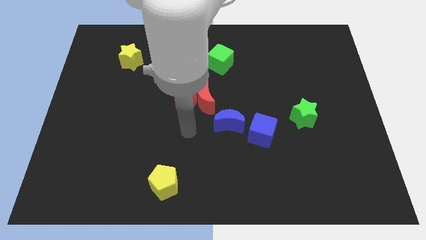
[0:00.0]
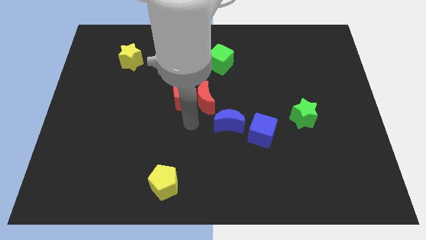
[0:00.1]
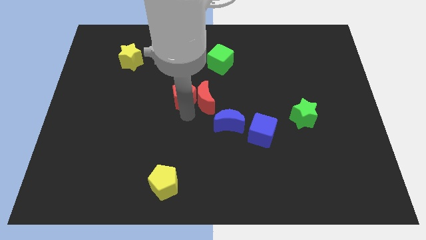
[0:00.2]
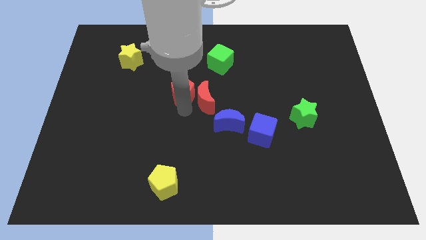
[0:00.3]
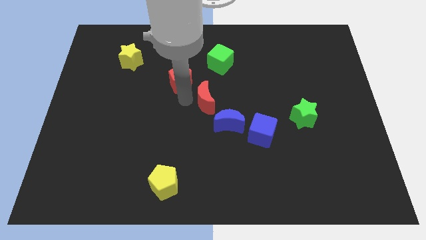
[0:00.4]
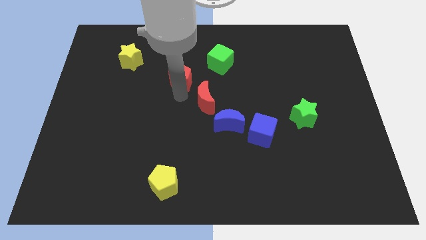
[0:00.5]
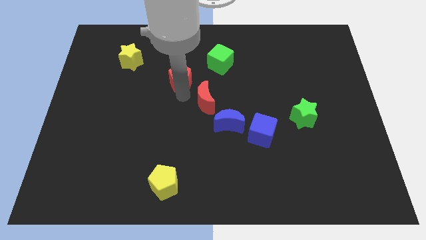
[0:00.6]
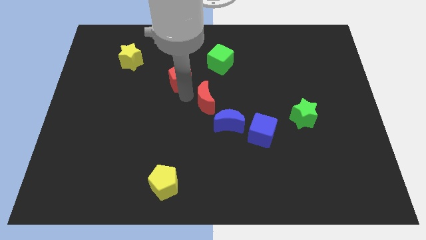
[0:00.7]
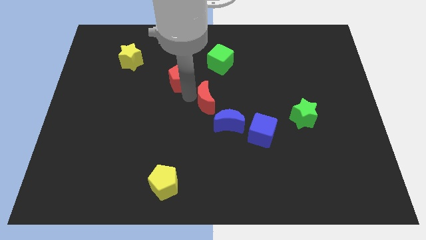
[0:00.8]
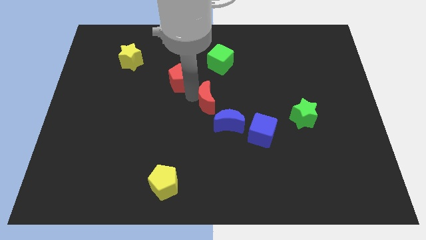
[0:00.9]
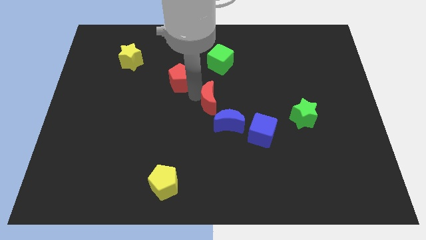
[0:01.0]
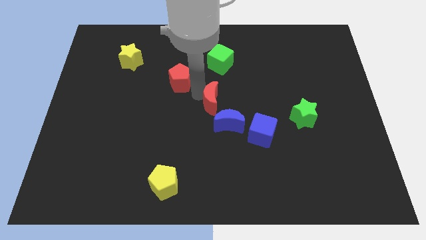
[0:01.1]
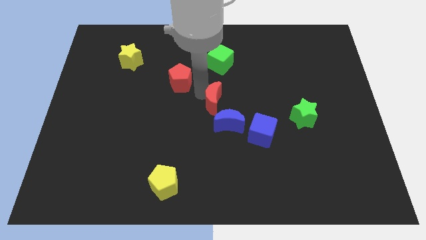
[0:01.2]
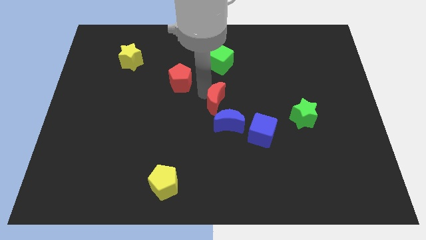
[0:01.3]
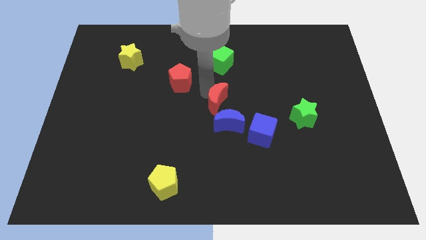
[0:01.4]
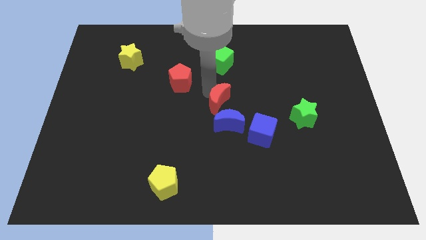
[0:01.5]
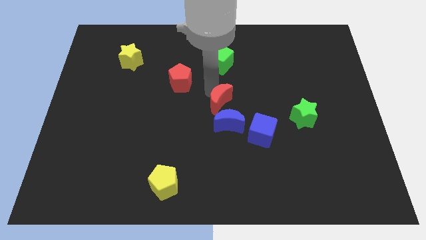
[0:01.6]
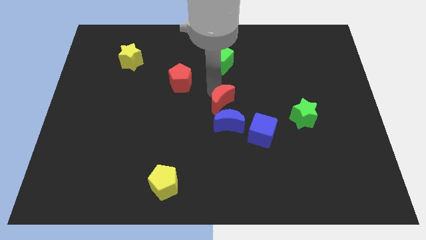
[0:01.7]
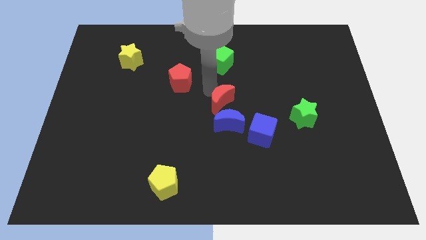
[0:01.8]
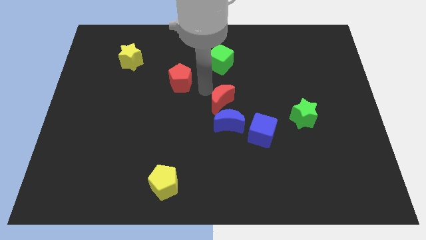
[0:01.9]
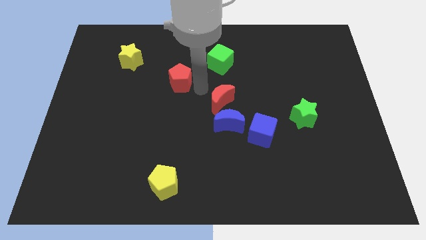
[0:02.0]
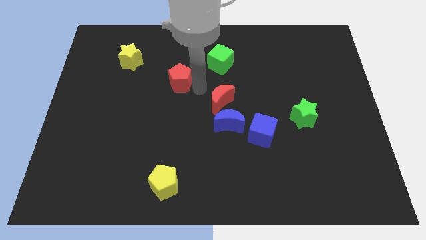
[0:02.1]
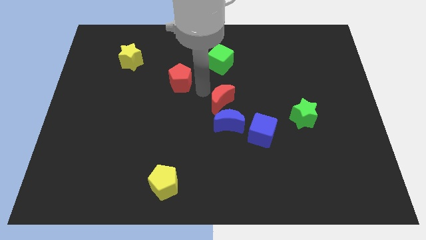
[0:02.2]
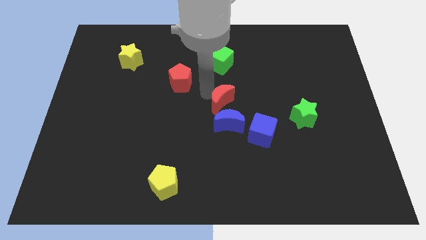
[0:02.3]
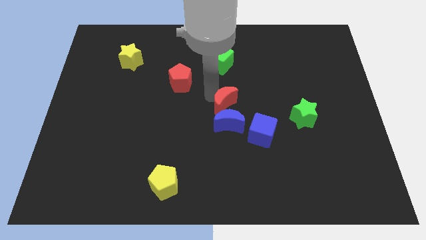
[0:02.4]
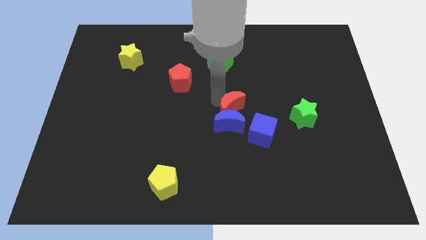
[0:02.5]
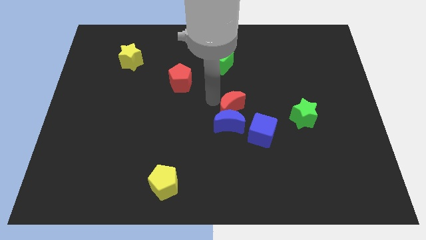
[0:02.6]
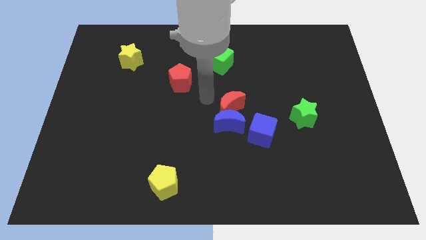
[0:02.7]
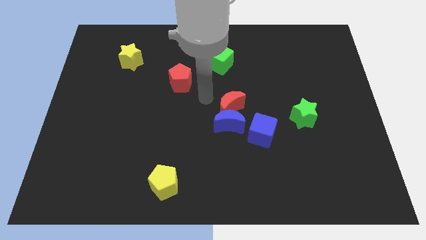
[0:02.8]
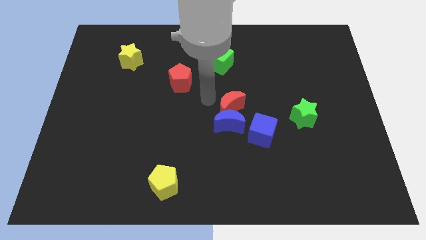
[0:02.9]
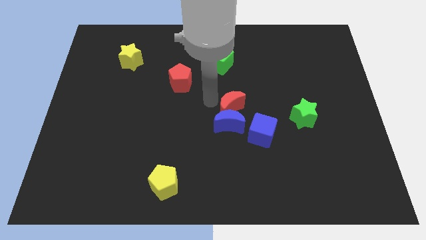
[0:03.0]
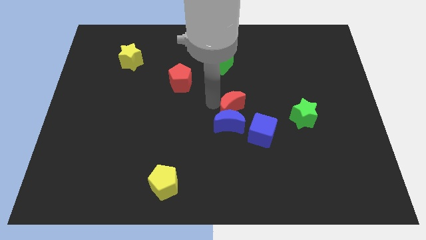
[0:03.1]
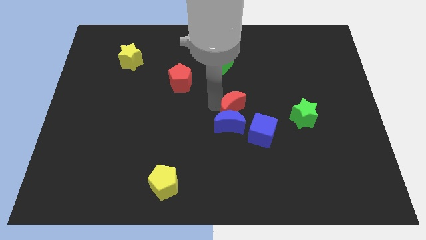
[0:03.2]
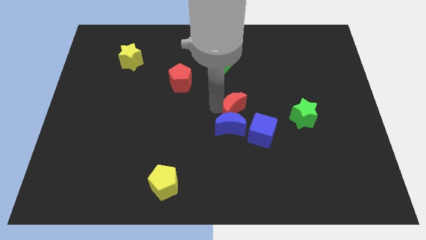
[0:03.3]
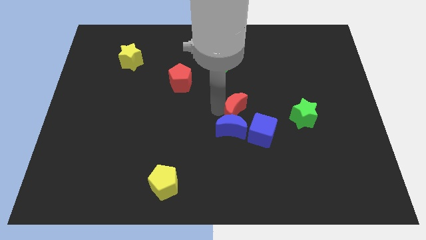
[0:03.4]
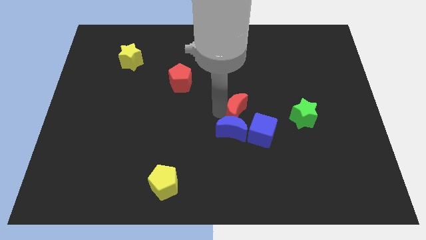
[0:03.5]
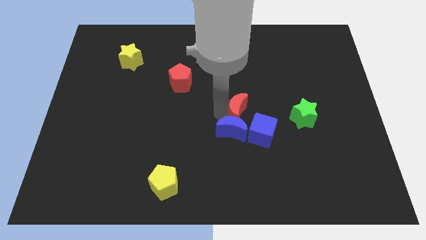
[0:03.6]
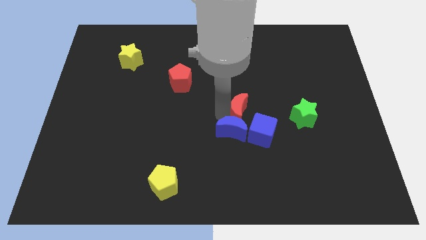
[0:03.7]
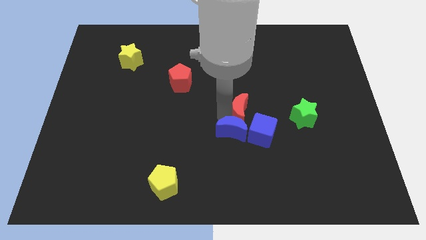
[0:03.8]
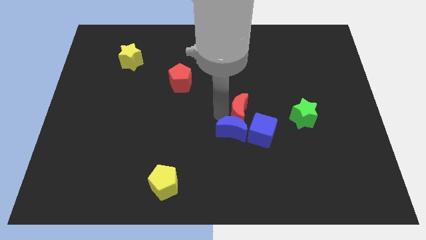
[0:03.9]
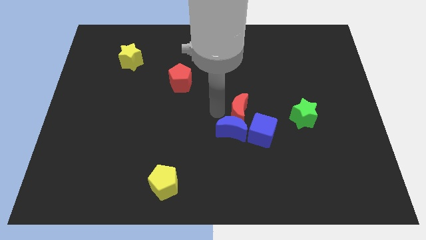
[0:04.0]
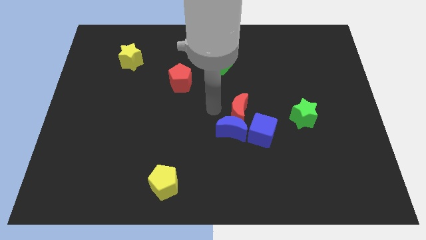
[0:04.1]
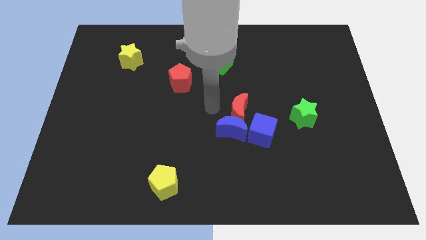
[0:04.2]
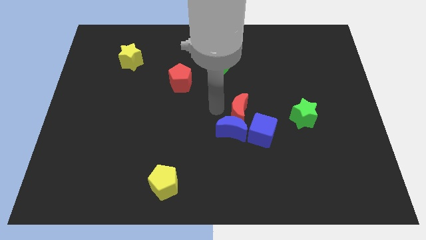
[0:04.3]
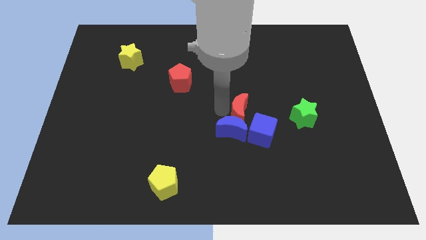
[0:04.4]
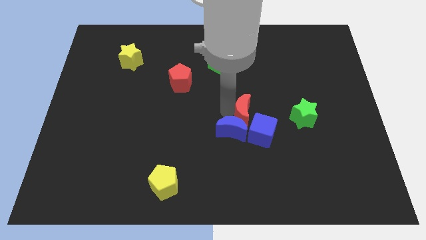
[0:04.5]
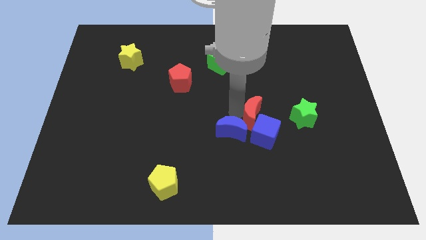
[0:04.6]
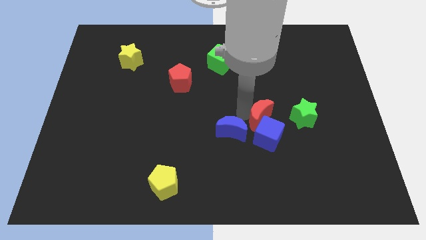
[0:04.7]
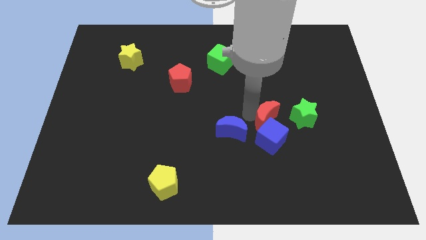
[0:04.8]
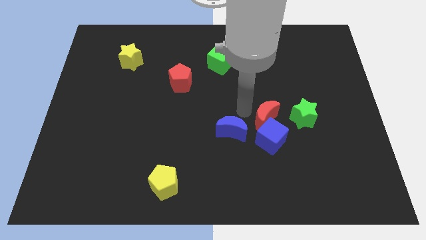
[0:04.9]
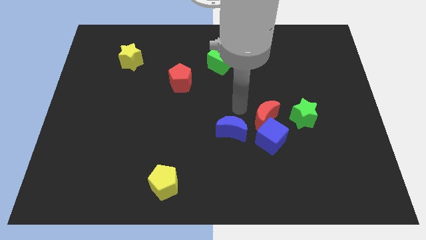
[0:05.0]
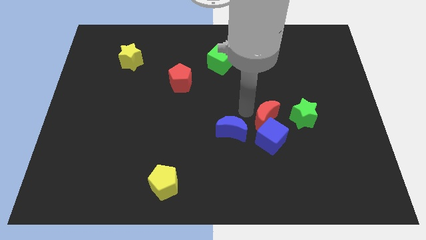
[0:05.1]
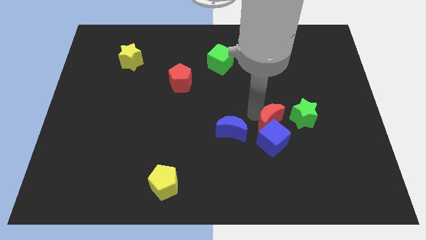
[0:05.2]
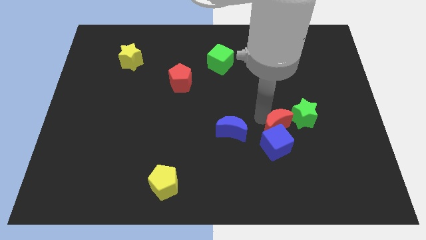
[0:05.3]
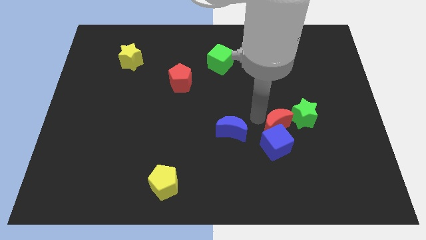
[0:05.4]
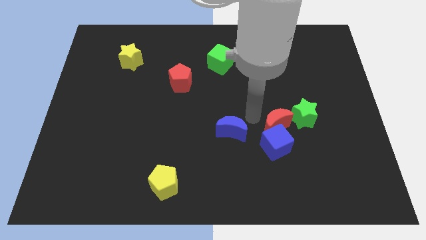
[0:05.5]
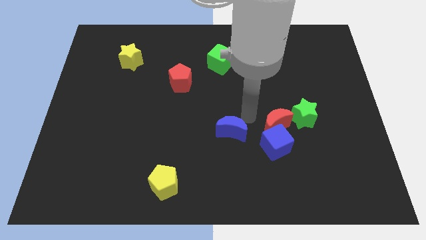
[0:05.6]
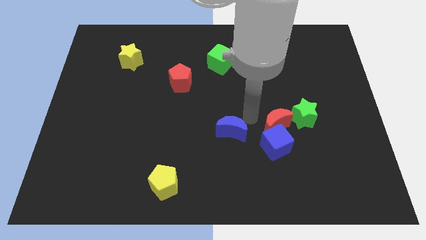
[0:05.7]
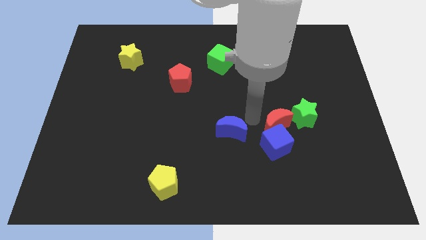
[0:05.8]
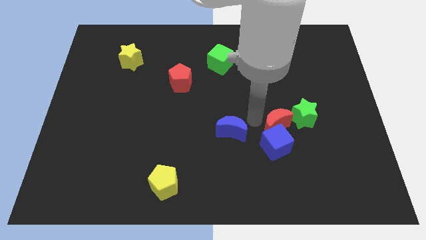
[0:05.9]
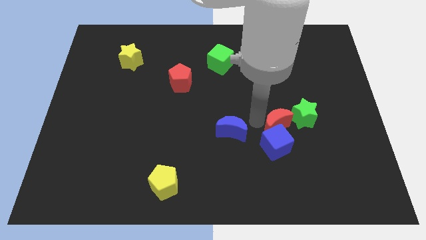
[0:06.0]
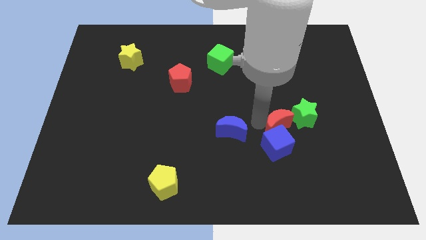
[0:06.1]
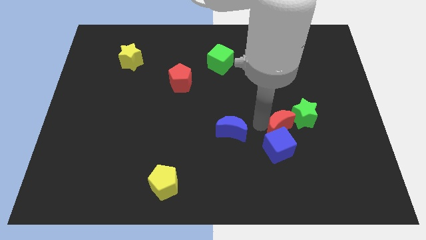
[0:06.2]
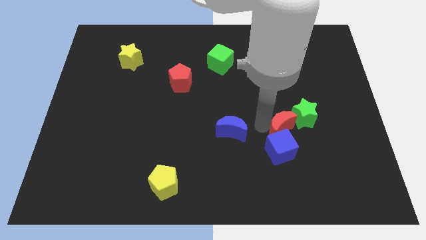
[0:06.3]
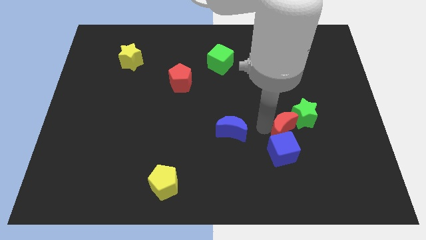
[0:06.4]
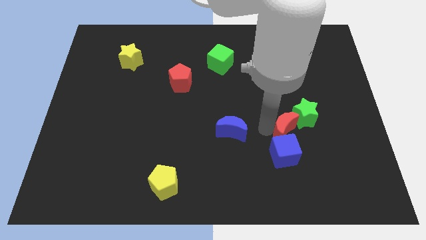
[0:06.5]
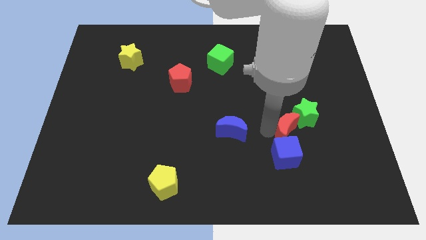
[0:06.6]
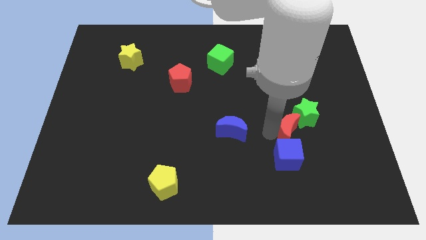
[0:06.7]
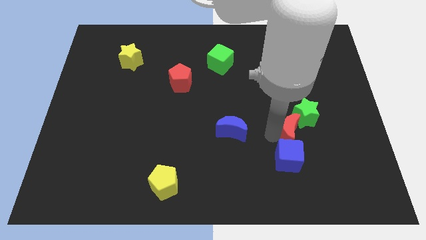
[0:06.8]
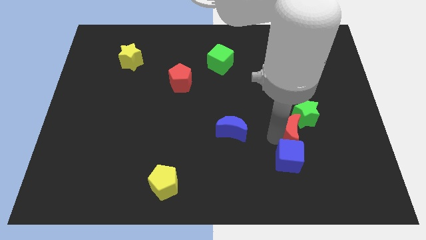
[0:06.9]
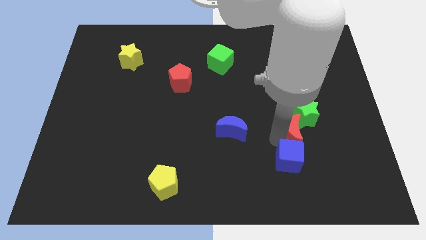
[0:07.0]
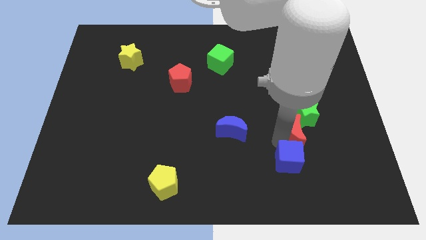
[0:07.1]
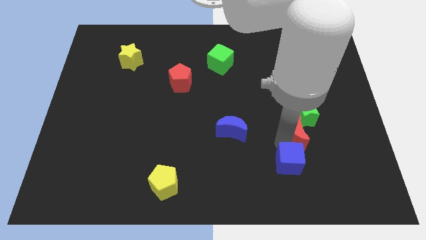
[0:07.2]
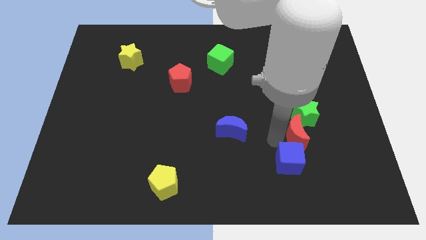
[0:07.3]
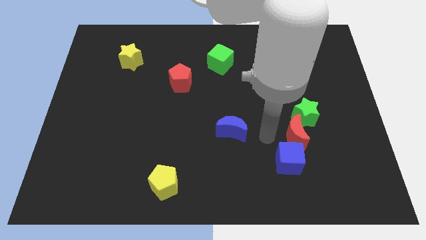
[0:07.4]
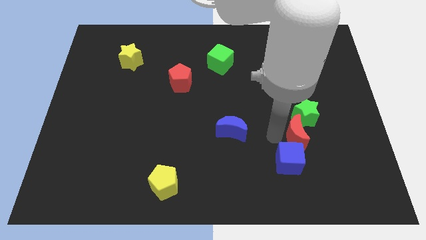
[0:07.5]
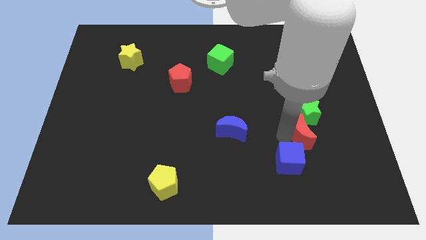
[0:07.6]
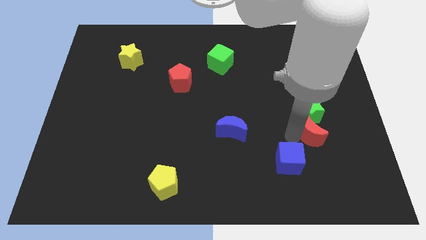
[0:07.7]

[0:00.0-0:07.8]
slide the red moon to the bottom right of the green star
